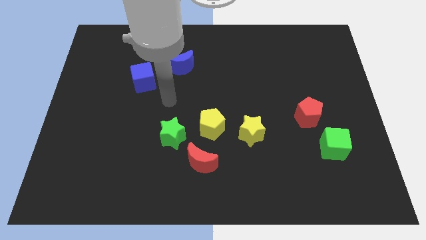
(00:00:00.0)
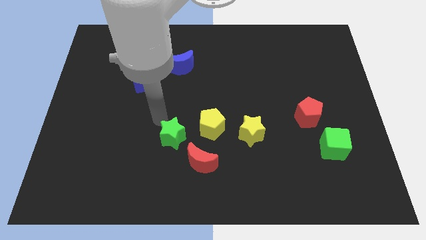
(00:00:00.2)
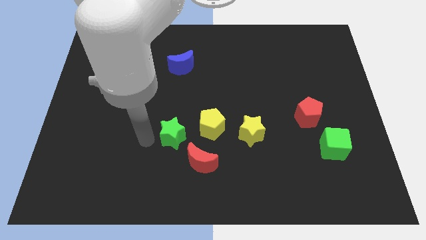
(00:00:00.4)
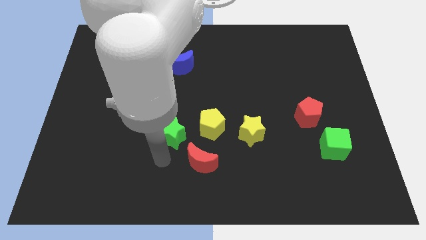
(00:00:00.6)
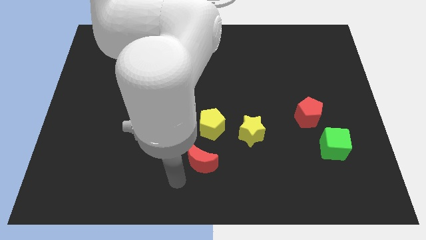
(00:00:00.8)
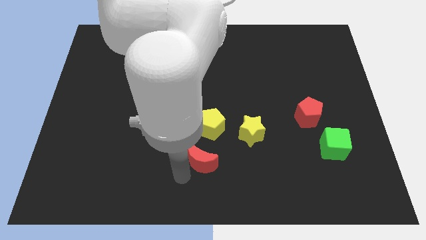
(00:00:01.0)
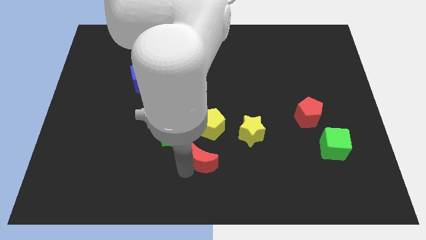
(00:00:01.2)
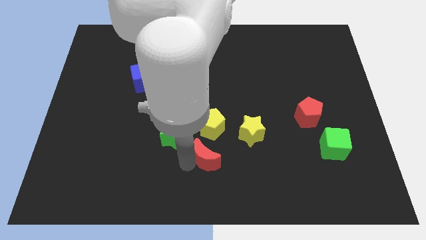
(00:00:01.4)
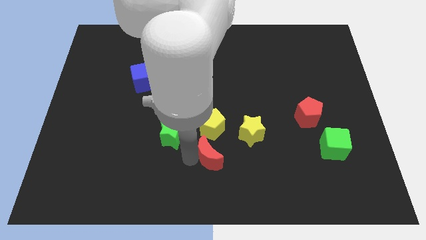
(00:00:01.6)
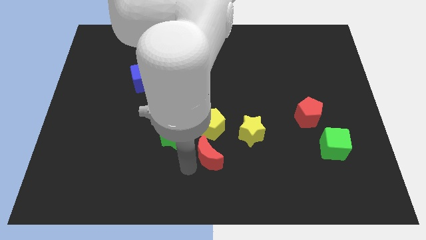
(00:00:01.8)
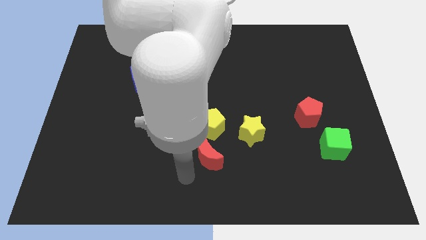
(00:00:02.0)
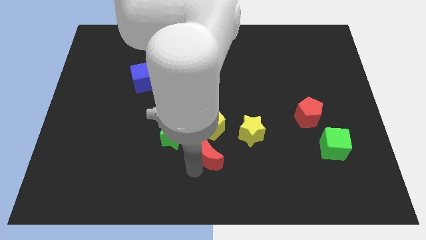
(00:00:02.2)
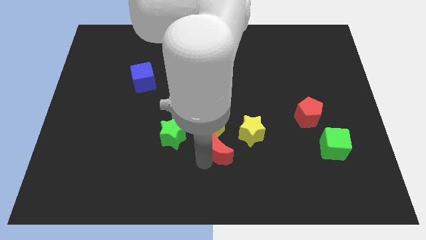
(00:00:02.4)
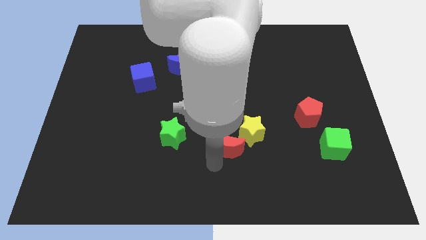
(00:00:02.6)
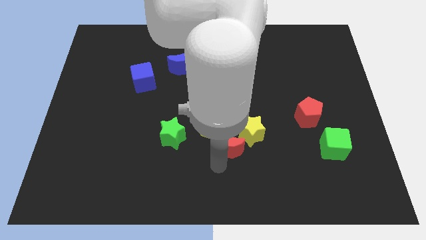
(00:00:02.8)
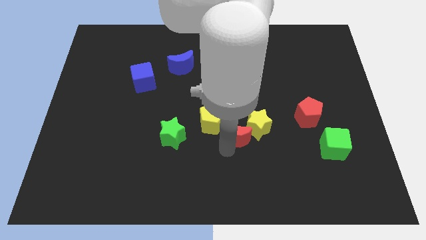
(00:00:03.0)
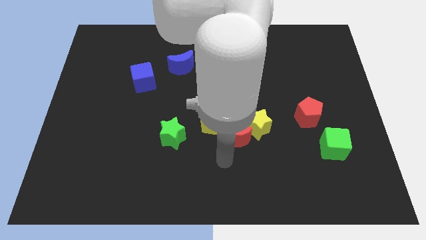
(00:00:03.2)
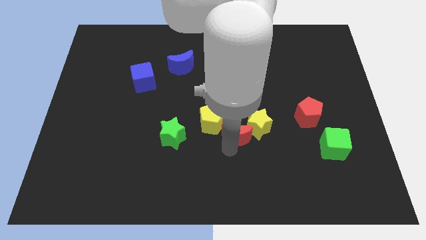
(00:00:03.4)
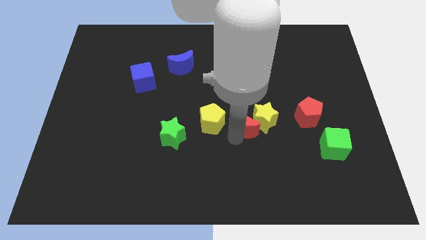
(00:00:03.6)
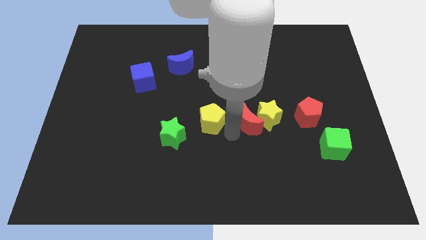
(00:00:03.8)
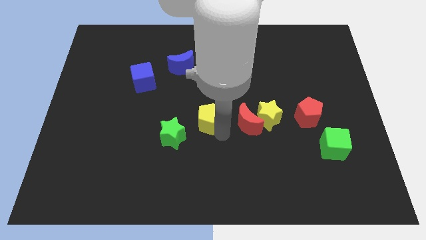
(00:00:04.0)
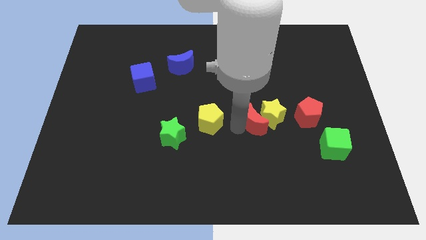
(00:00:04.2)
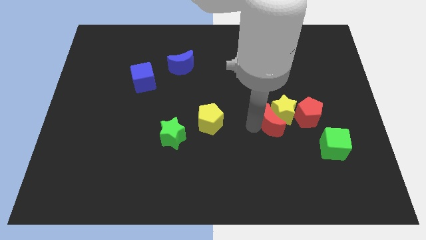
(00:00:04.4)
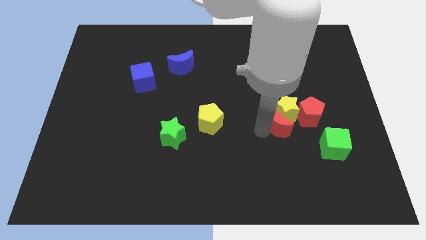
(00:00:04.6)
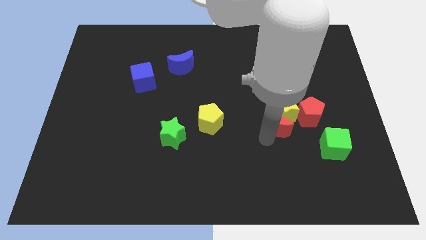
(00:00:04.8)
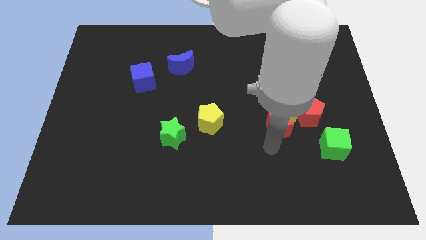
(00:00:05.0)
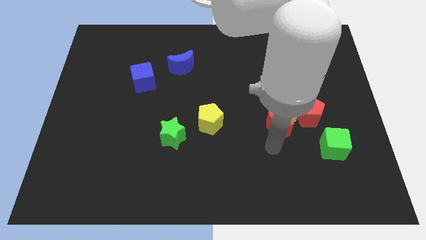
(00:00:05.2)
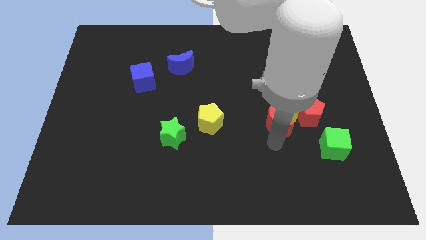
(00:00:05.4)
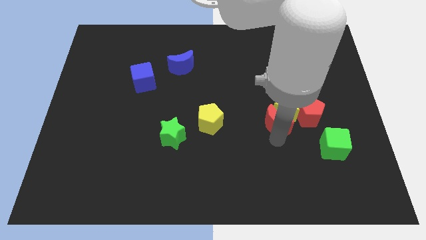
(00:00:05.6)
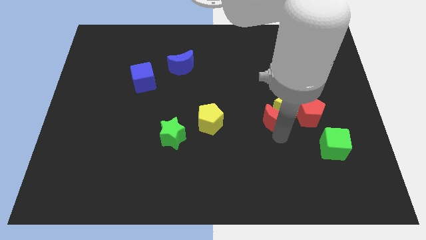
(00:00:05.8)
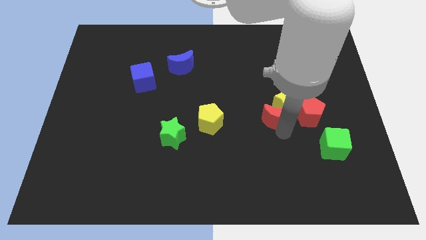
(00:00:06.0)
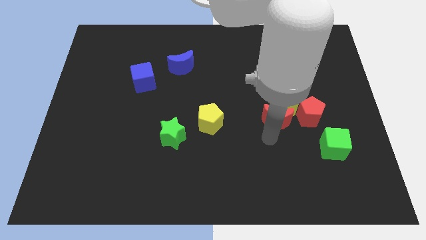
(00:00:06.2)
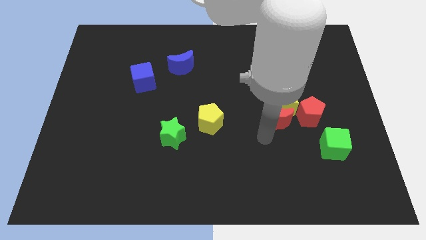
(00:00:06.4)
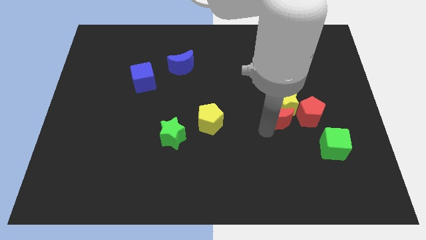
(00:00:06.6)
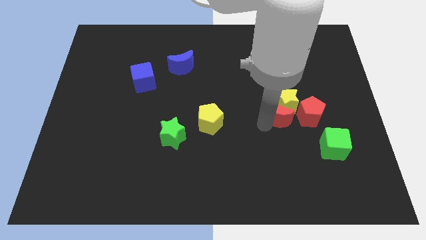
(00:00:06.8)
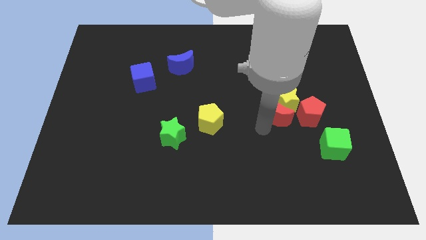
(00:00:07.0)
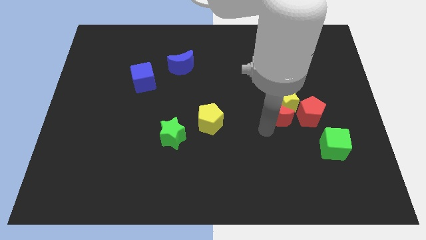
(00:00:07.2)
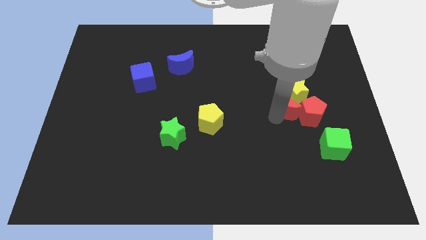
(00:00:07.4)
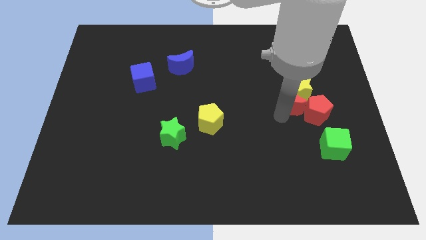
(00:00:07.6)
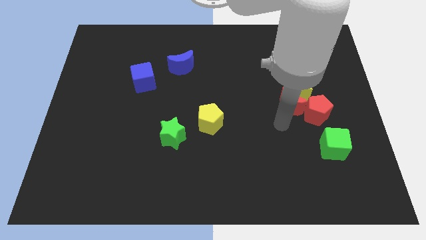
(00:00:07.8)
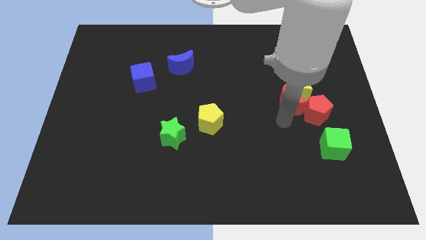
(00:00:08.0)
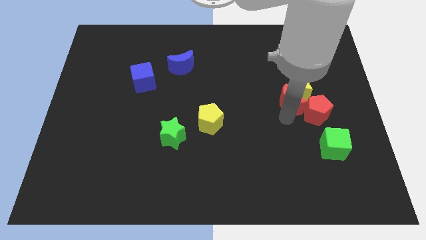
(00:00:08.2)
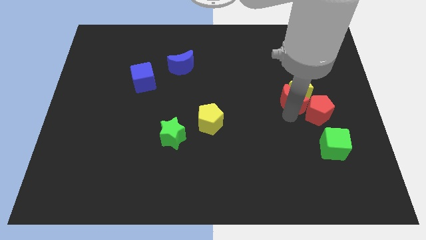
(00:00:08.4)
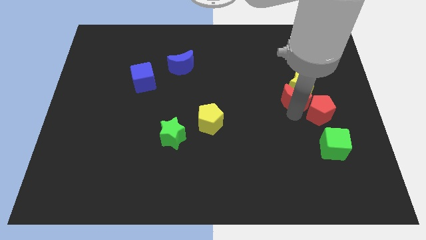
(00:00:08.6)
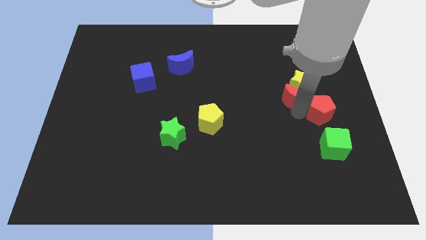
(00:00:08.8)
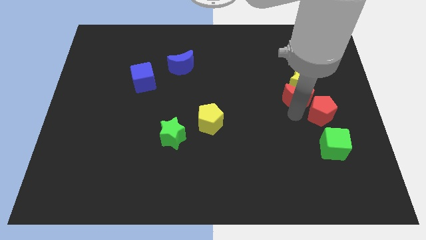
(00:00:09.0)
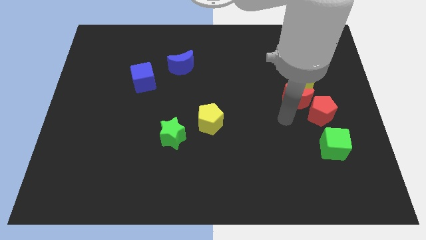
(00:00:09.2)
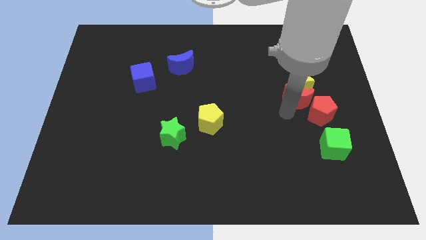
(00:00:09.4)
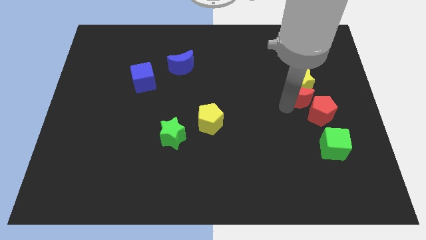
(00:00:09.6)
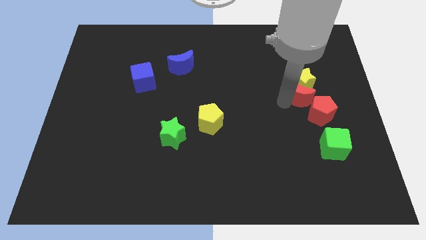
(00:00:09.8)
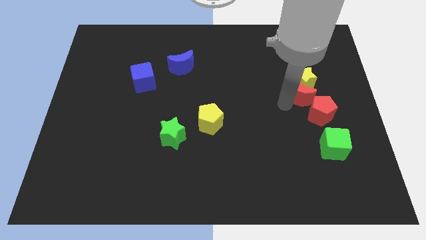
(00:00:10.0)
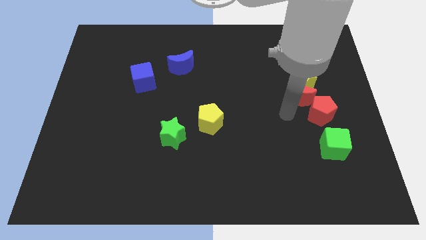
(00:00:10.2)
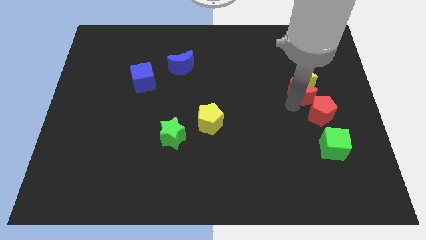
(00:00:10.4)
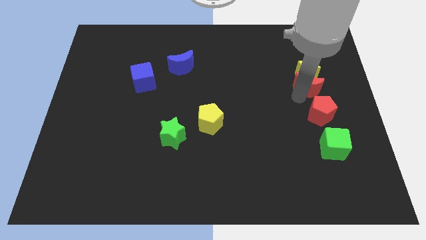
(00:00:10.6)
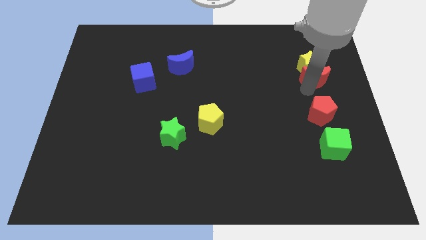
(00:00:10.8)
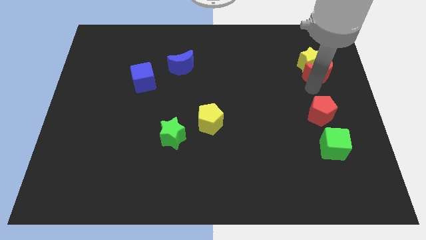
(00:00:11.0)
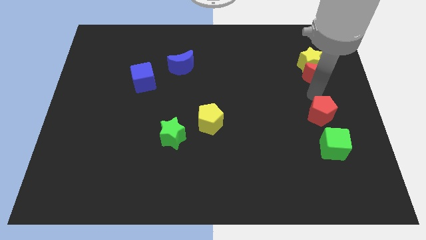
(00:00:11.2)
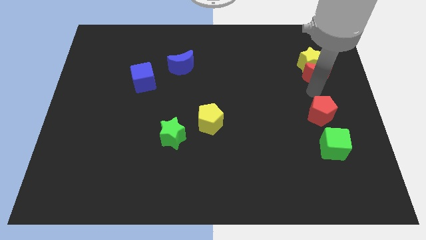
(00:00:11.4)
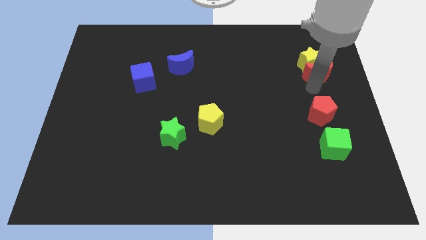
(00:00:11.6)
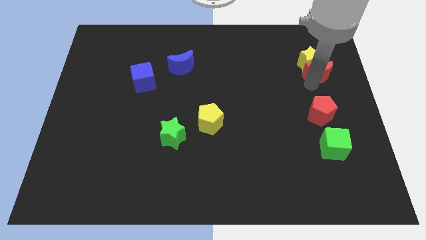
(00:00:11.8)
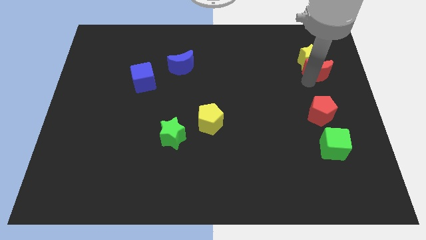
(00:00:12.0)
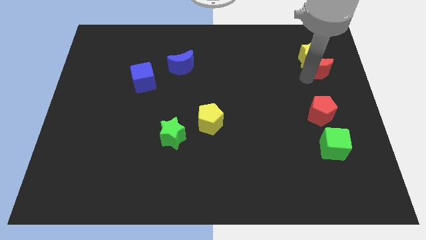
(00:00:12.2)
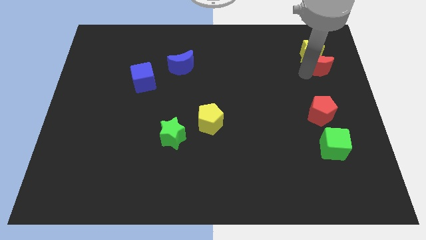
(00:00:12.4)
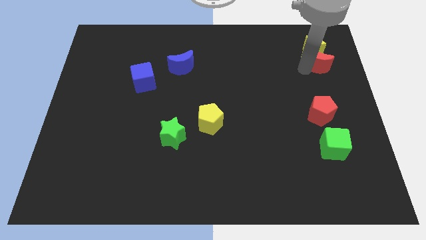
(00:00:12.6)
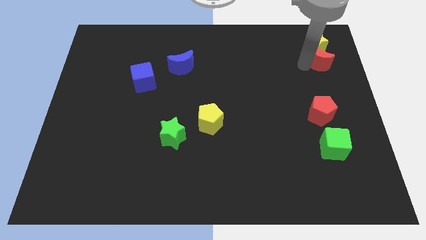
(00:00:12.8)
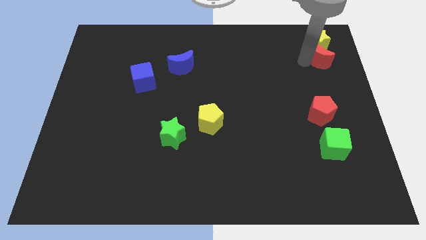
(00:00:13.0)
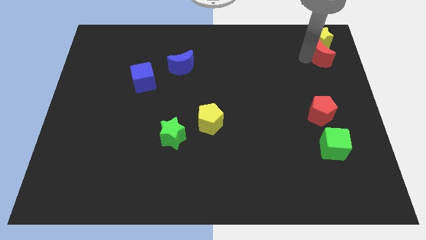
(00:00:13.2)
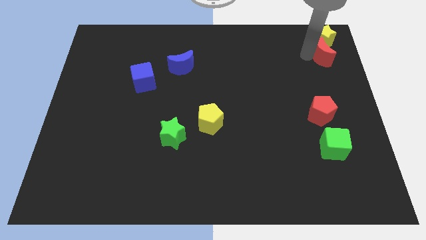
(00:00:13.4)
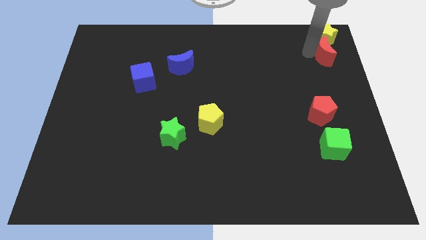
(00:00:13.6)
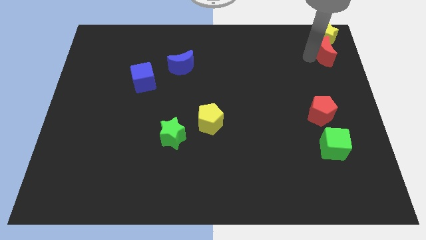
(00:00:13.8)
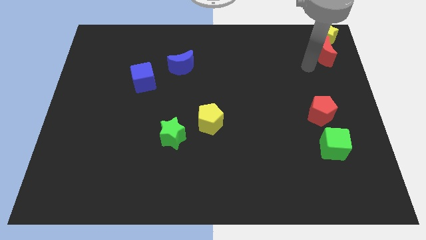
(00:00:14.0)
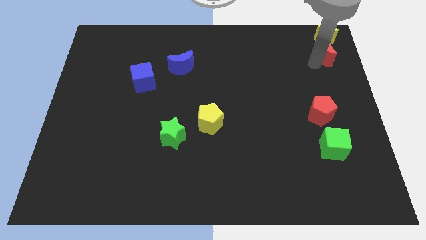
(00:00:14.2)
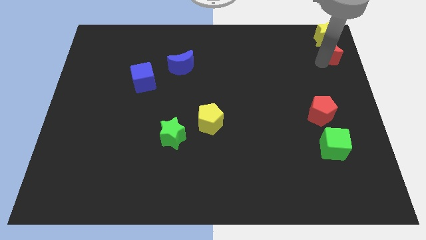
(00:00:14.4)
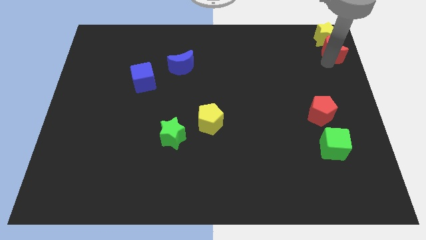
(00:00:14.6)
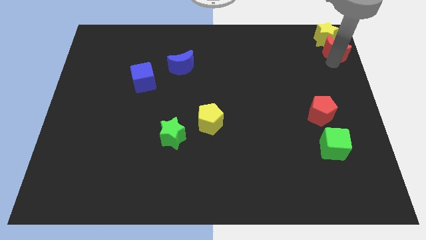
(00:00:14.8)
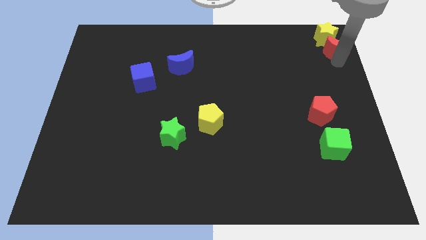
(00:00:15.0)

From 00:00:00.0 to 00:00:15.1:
move the red moon to the upper right corner
